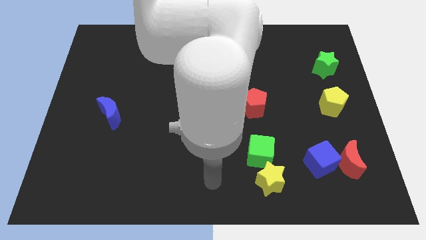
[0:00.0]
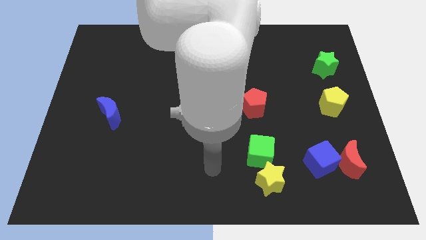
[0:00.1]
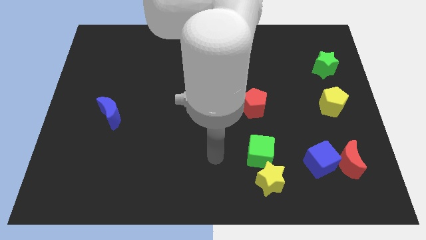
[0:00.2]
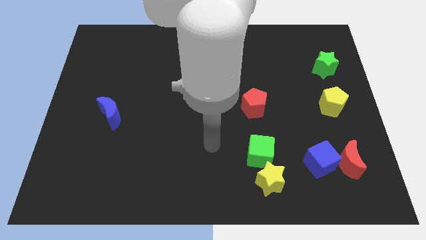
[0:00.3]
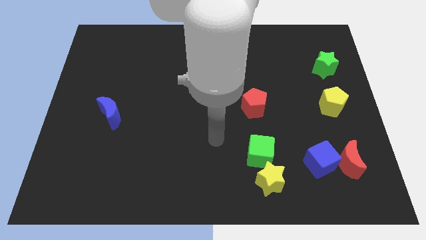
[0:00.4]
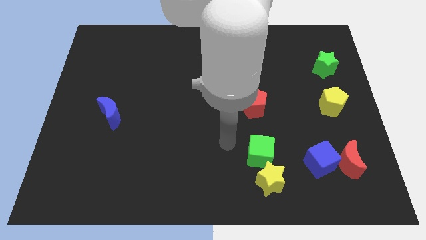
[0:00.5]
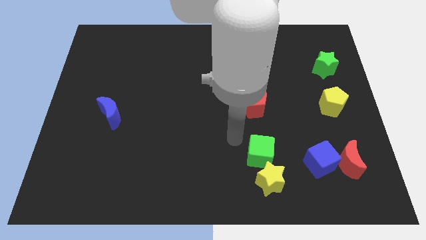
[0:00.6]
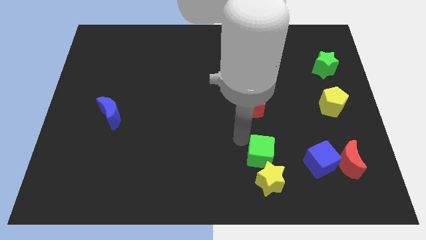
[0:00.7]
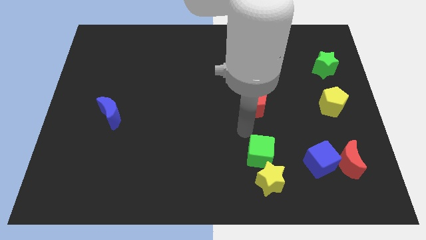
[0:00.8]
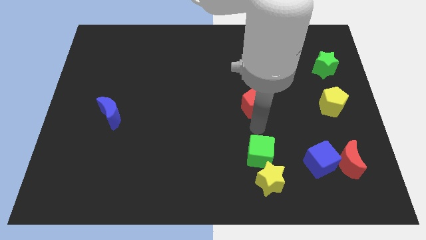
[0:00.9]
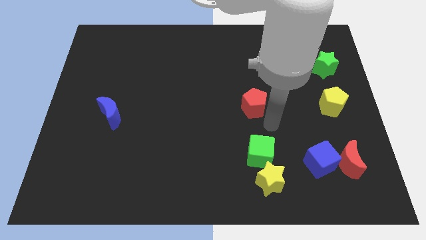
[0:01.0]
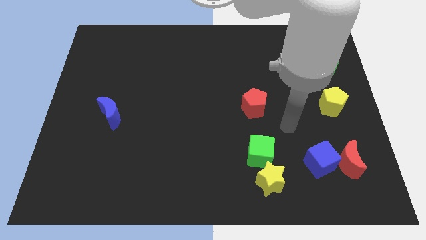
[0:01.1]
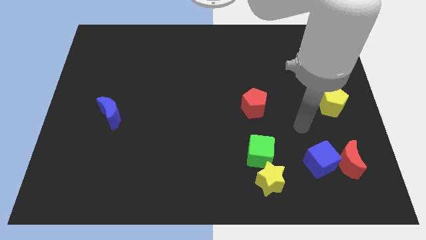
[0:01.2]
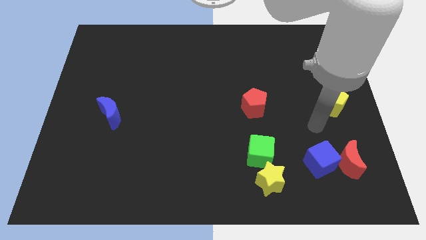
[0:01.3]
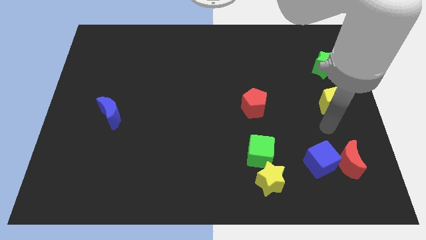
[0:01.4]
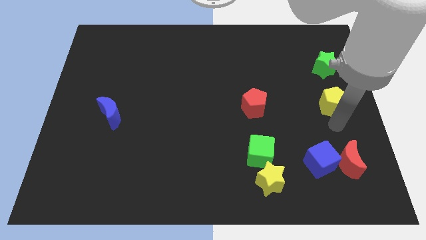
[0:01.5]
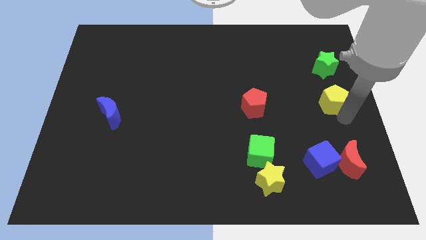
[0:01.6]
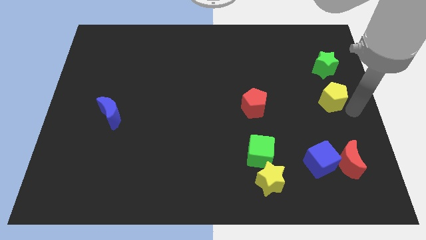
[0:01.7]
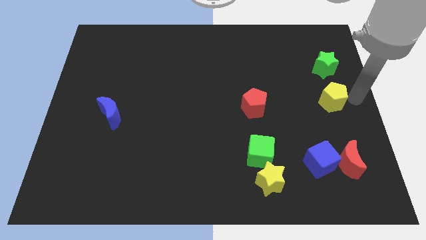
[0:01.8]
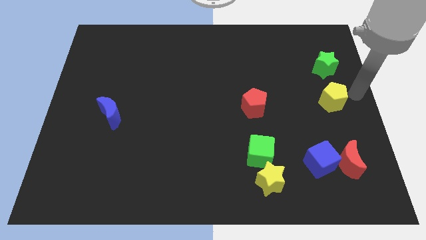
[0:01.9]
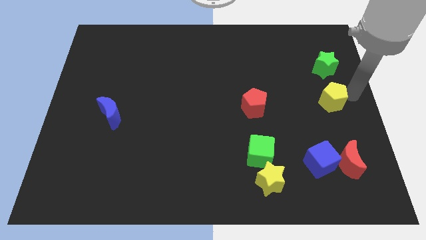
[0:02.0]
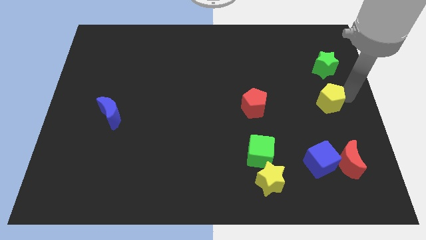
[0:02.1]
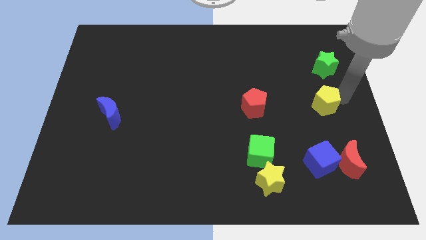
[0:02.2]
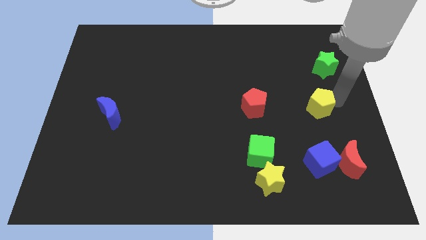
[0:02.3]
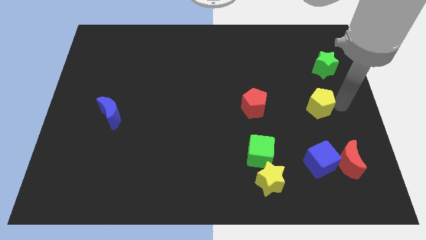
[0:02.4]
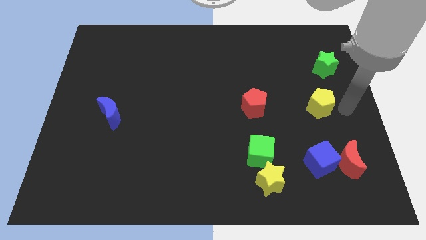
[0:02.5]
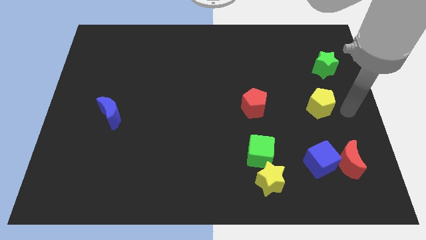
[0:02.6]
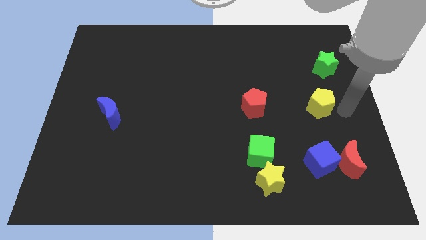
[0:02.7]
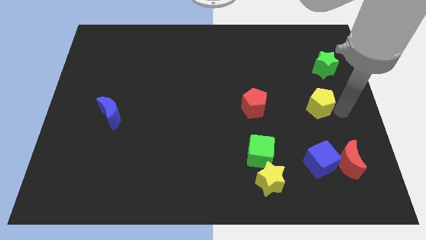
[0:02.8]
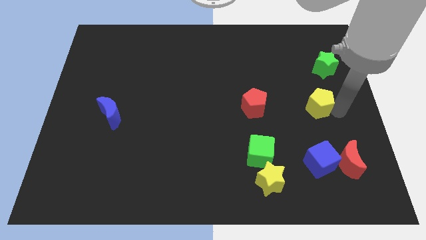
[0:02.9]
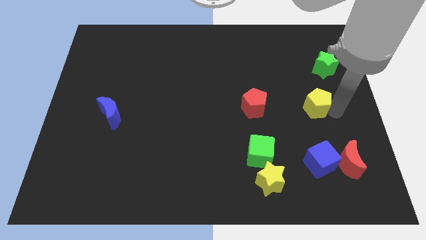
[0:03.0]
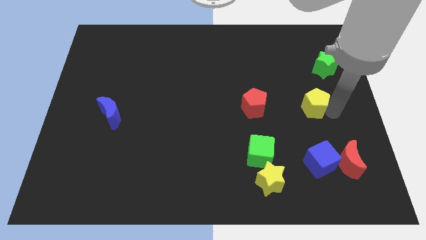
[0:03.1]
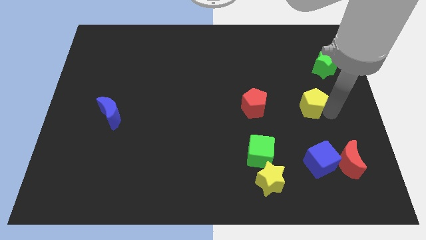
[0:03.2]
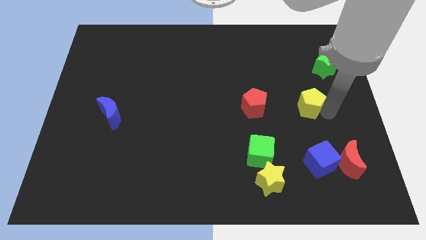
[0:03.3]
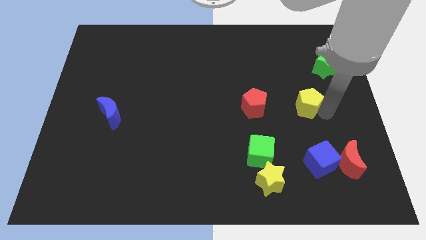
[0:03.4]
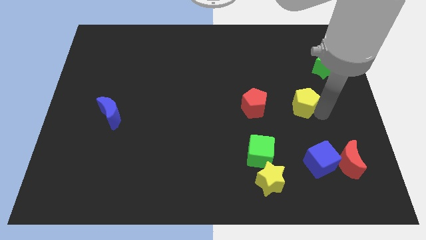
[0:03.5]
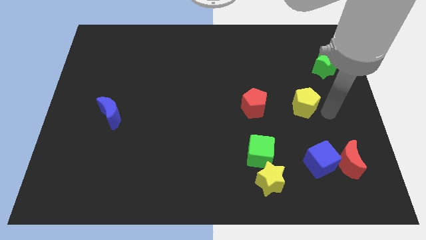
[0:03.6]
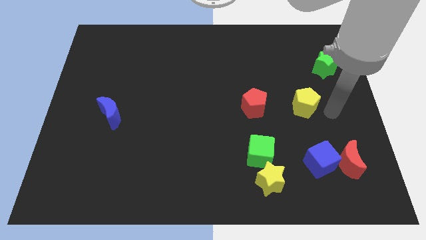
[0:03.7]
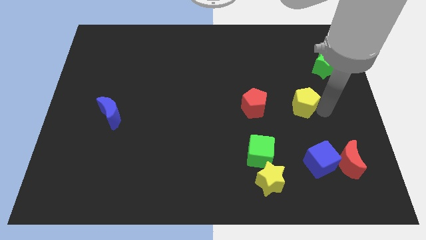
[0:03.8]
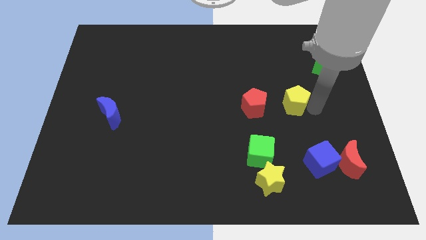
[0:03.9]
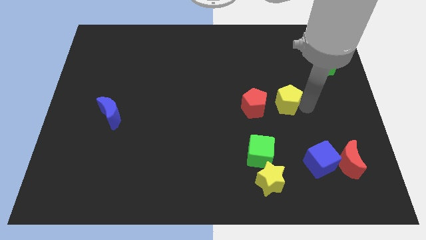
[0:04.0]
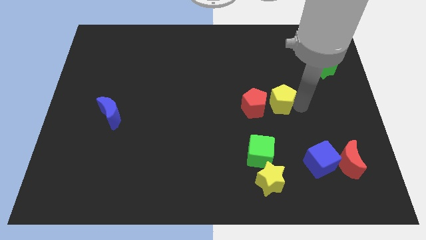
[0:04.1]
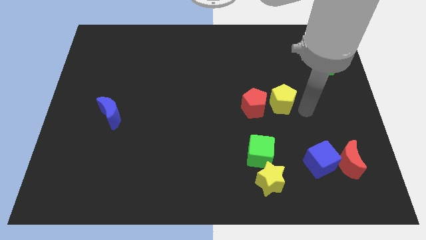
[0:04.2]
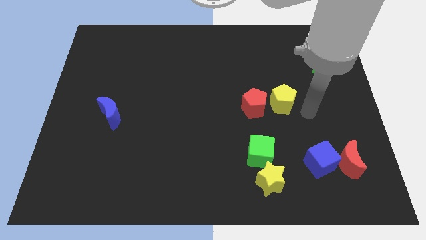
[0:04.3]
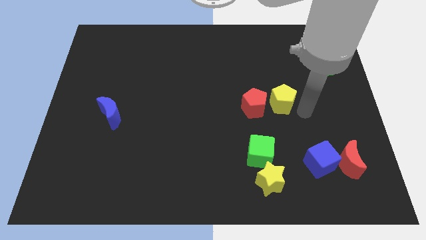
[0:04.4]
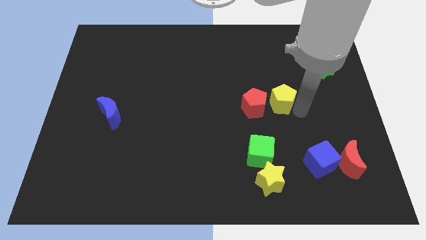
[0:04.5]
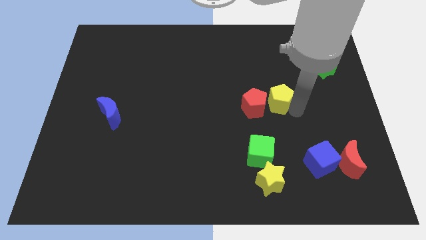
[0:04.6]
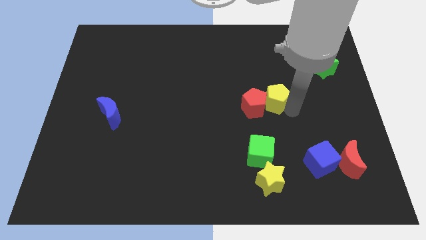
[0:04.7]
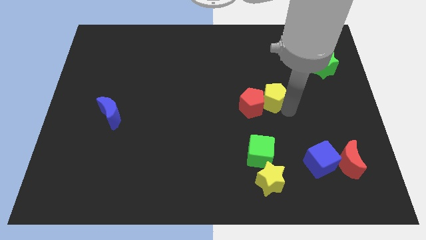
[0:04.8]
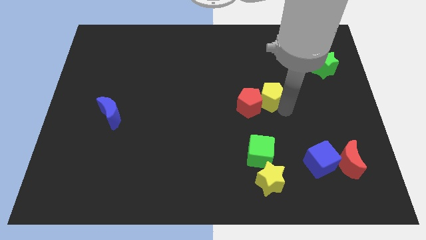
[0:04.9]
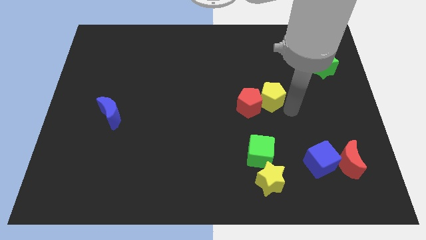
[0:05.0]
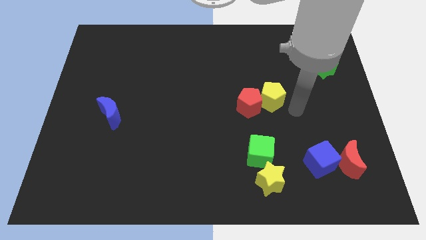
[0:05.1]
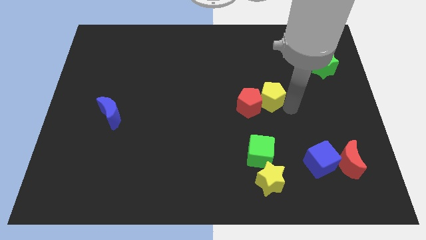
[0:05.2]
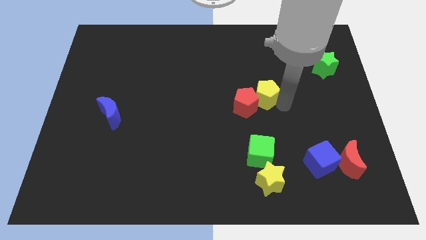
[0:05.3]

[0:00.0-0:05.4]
push the yellow pentagon to the middle

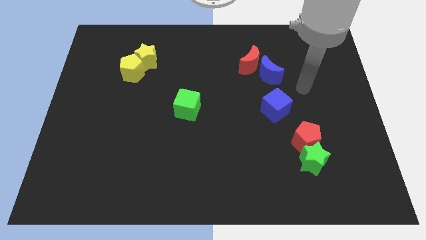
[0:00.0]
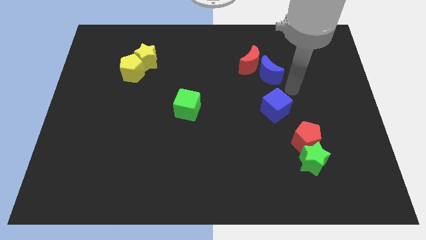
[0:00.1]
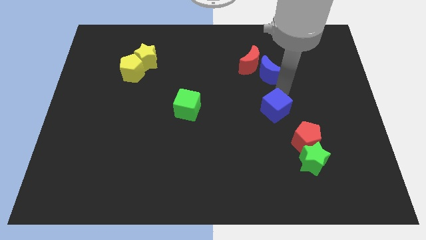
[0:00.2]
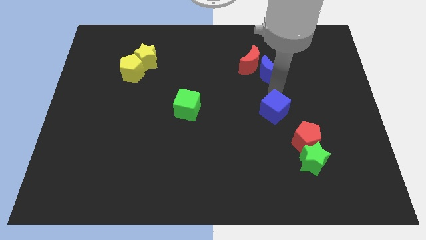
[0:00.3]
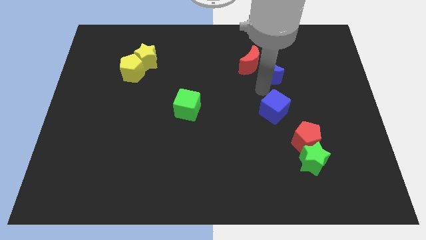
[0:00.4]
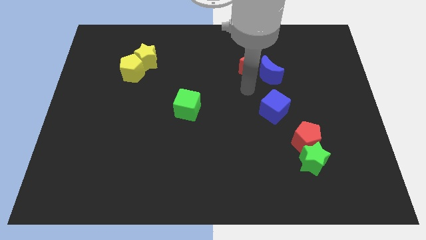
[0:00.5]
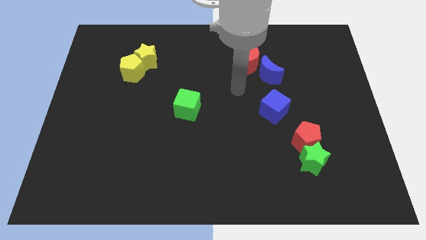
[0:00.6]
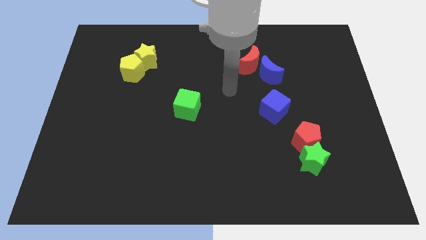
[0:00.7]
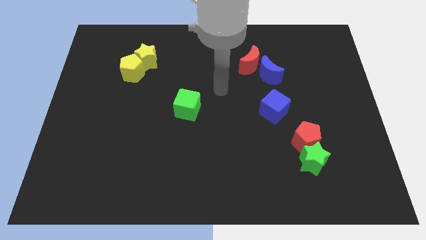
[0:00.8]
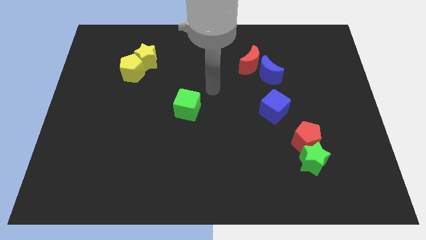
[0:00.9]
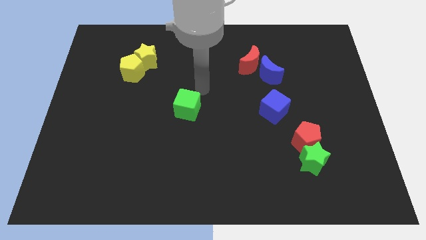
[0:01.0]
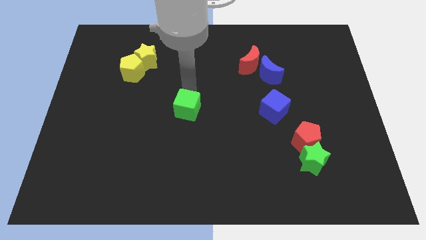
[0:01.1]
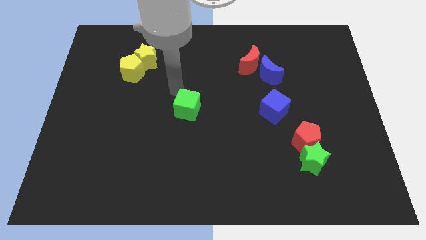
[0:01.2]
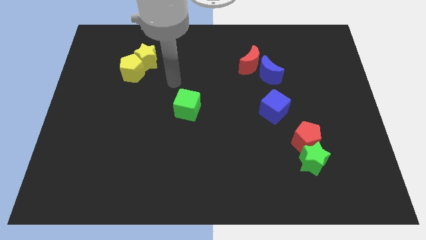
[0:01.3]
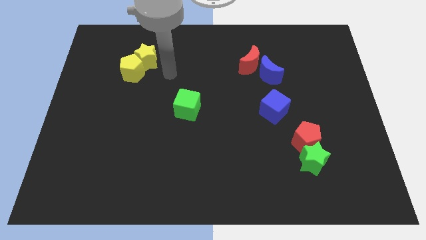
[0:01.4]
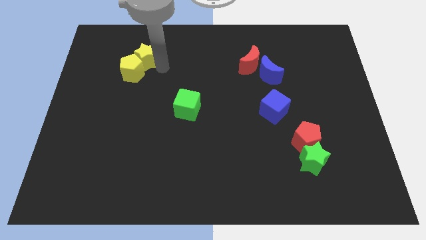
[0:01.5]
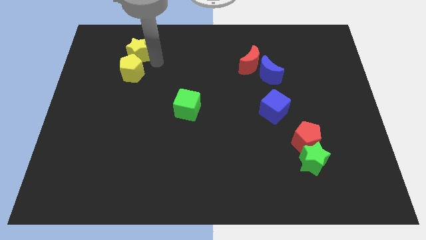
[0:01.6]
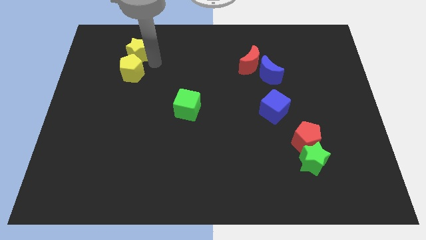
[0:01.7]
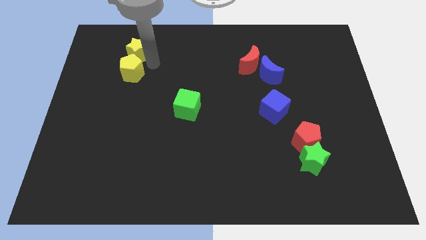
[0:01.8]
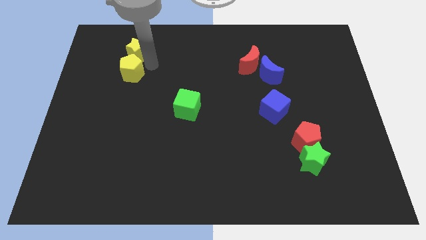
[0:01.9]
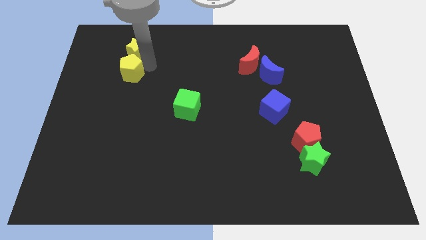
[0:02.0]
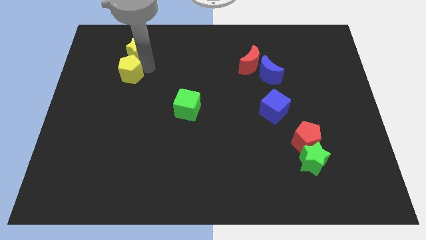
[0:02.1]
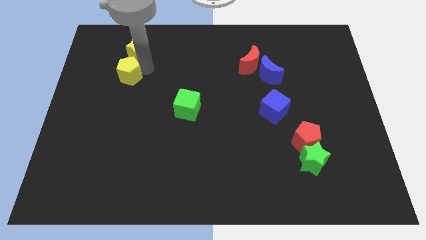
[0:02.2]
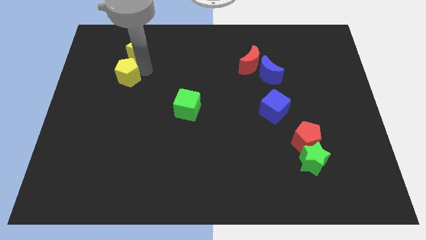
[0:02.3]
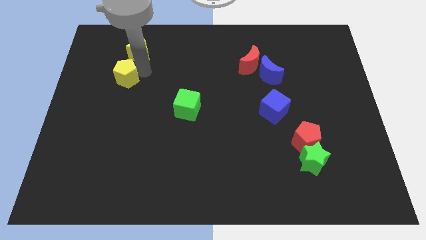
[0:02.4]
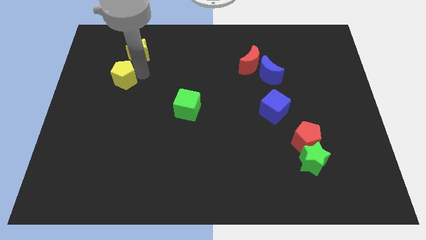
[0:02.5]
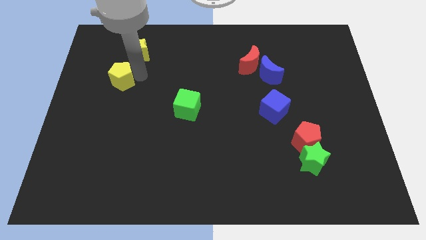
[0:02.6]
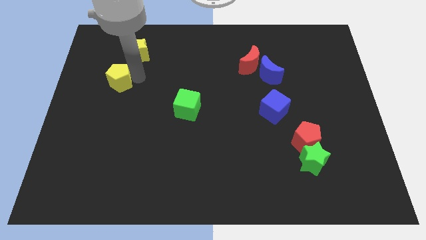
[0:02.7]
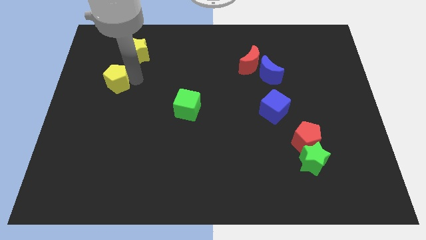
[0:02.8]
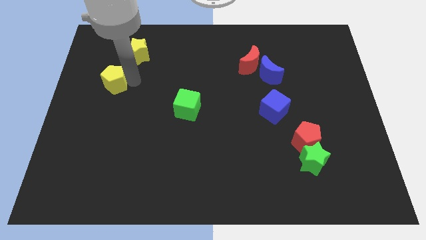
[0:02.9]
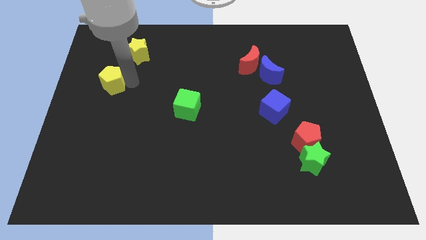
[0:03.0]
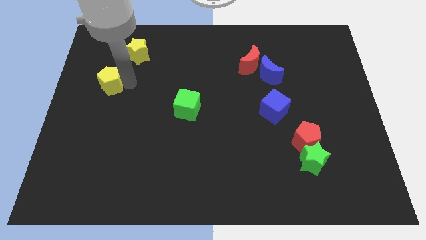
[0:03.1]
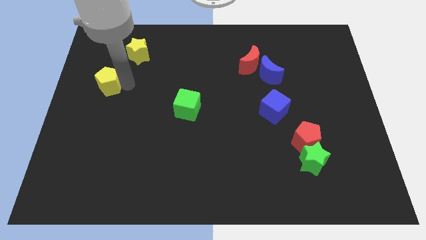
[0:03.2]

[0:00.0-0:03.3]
put the yellow pentagon to the left side
